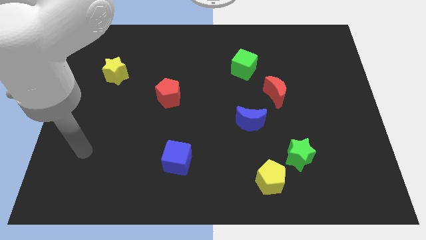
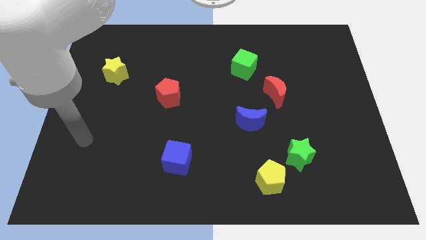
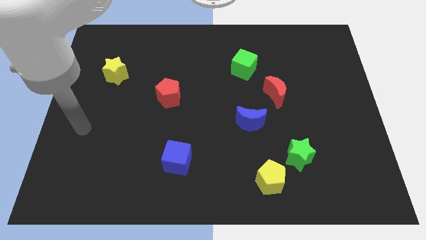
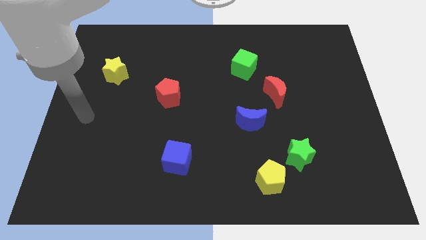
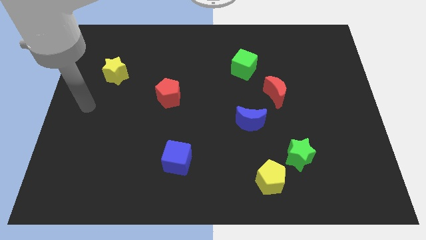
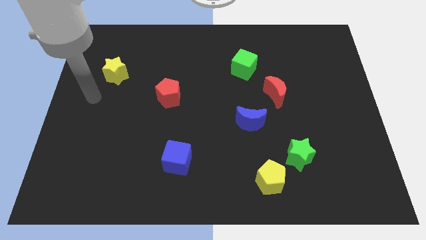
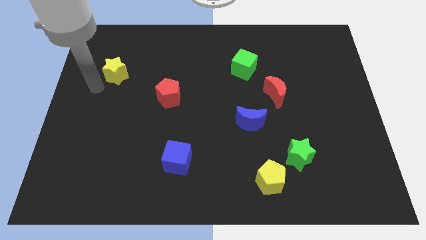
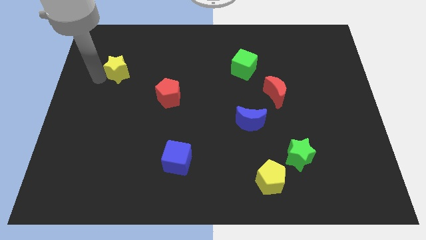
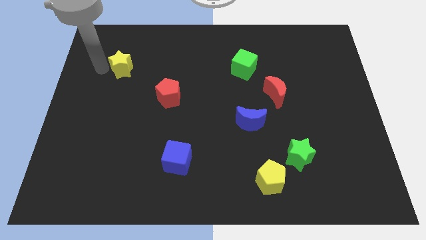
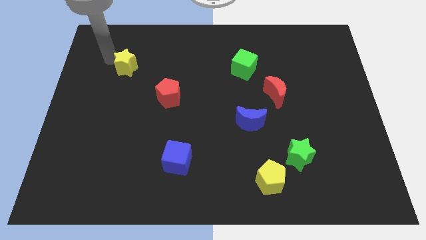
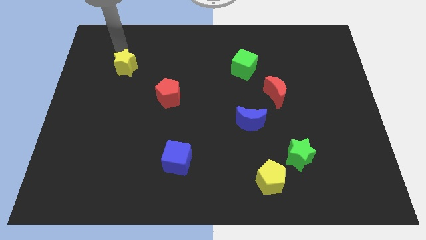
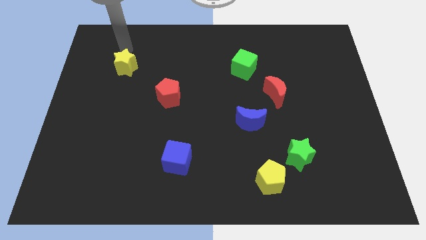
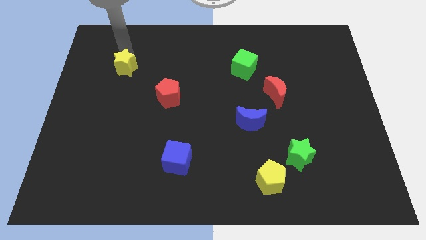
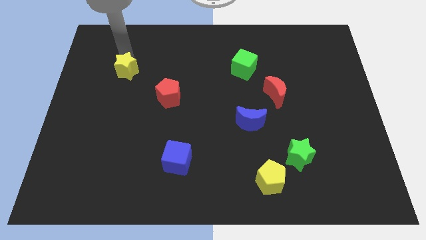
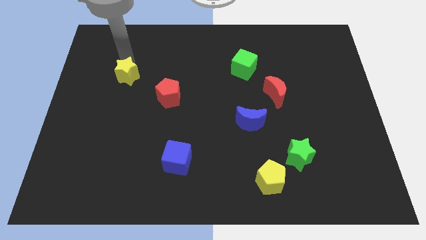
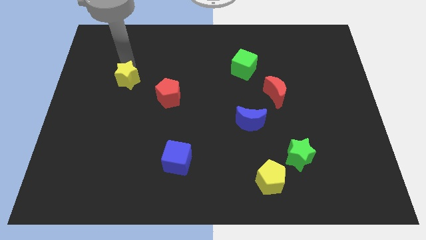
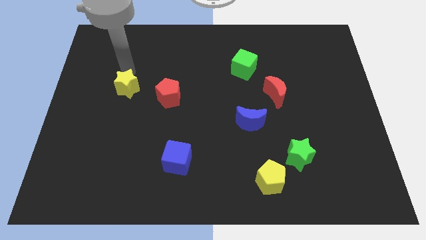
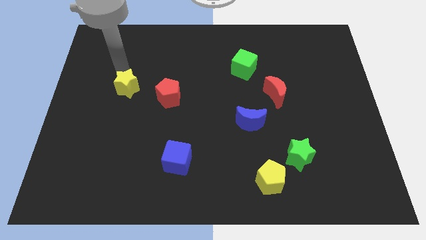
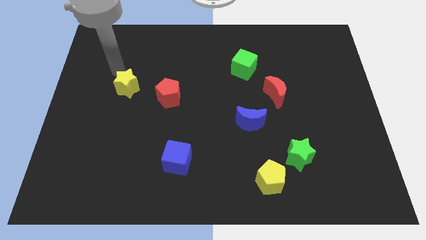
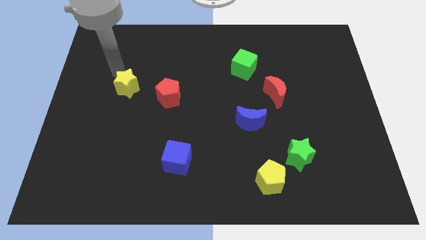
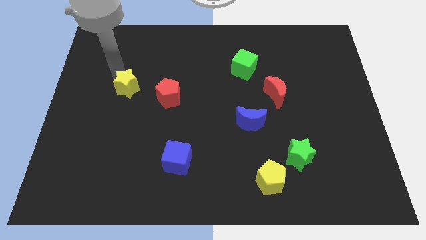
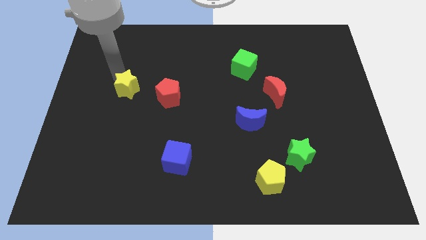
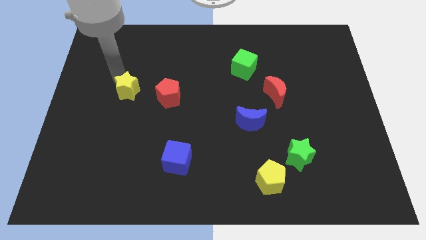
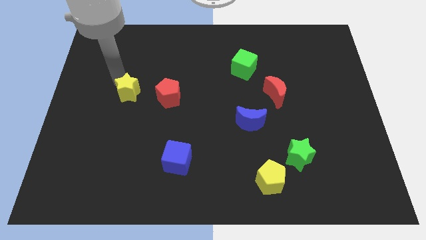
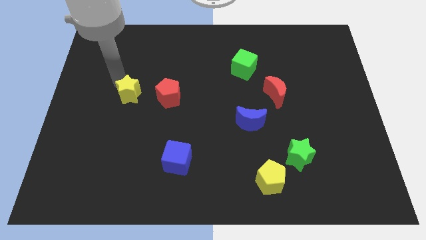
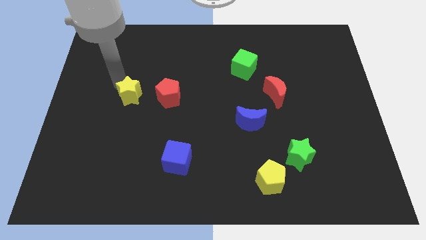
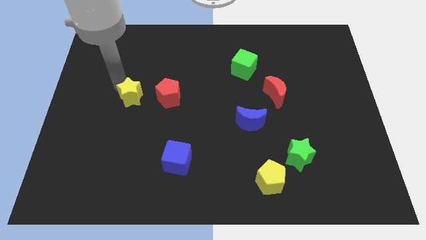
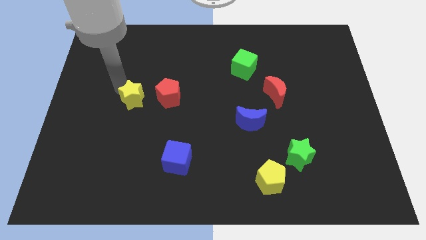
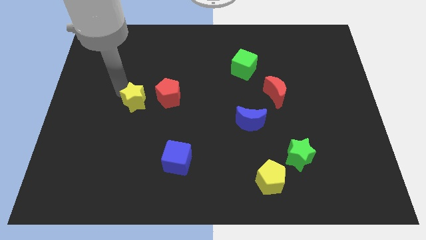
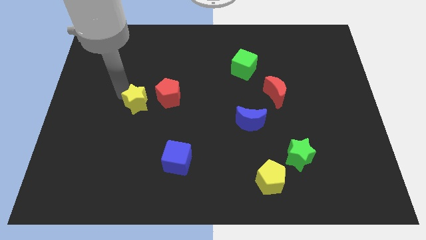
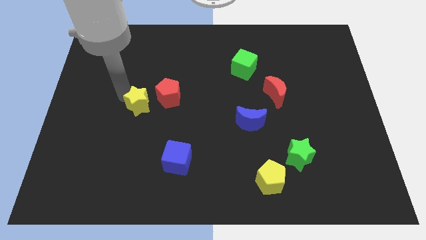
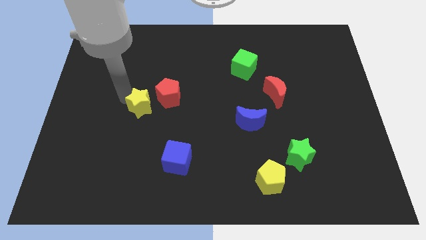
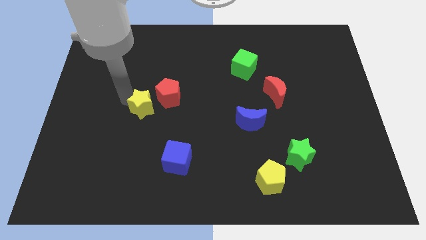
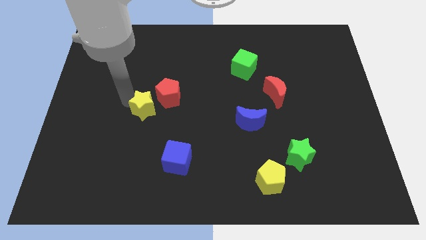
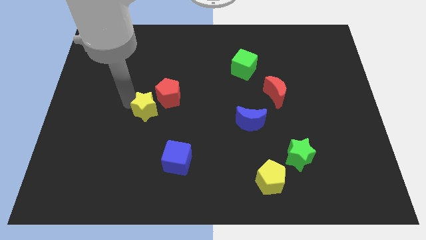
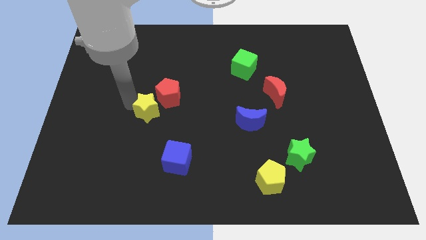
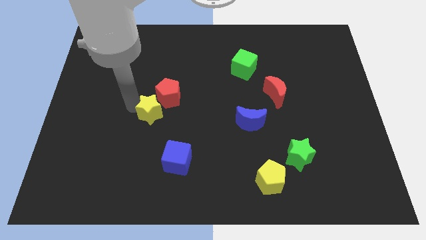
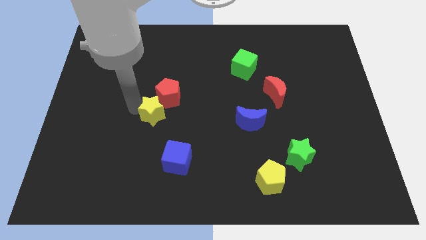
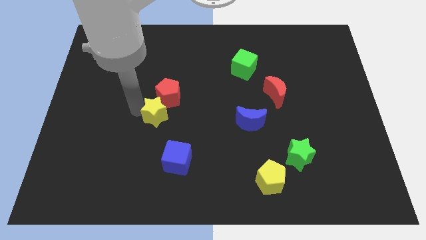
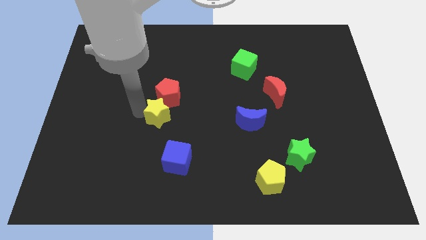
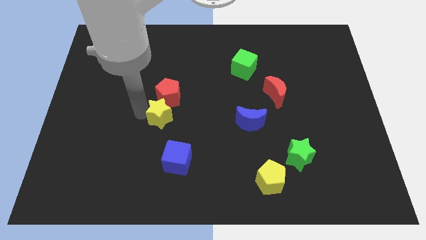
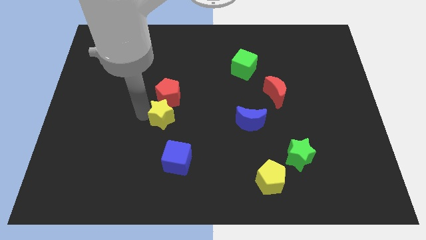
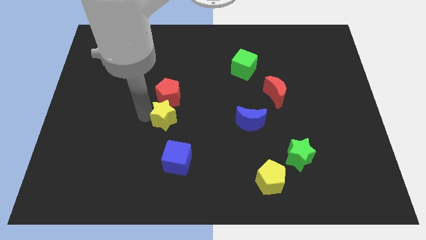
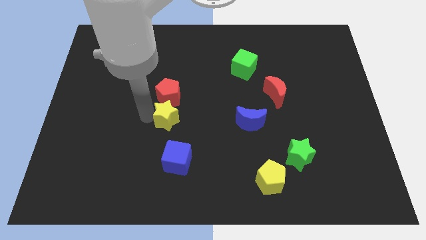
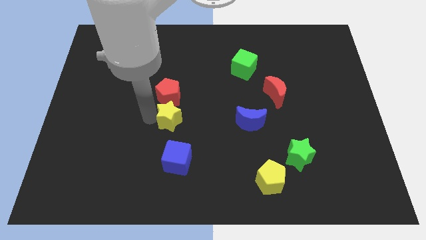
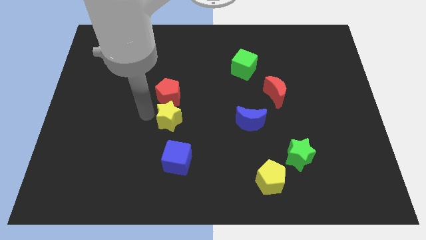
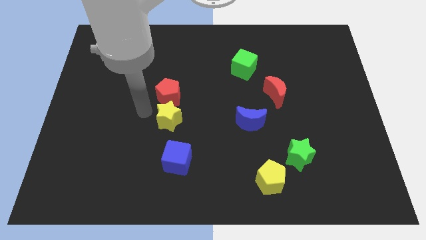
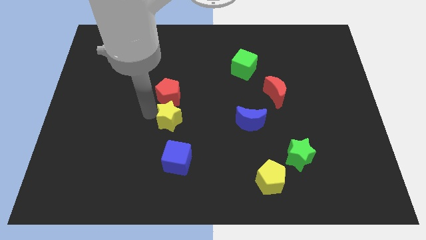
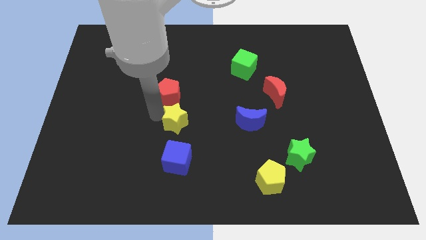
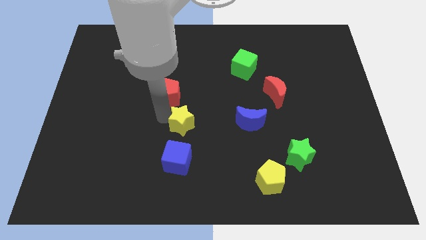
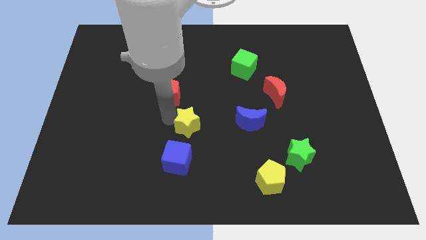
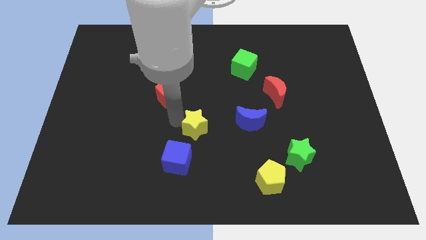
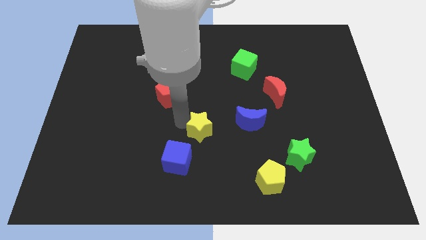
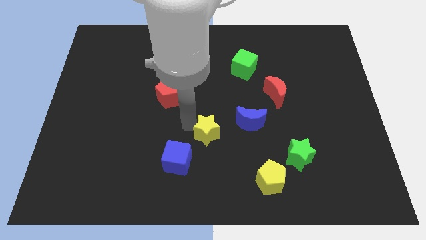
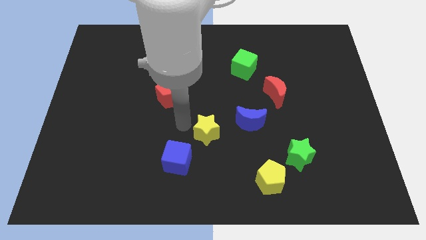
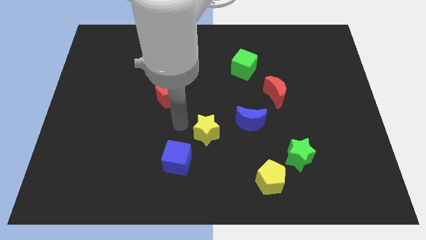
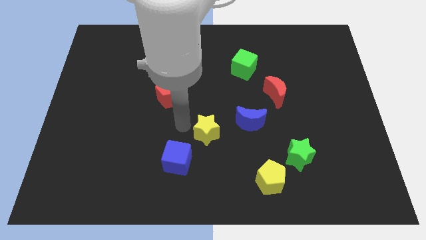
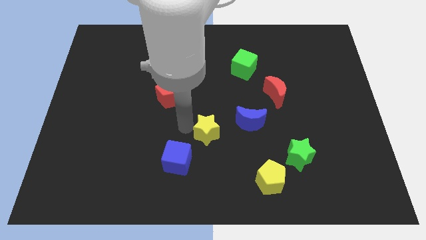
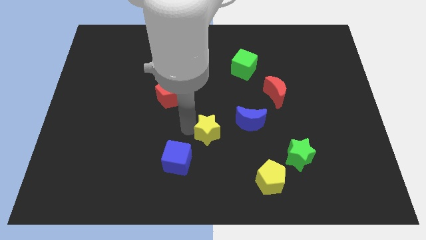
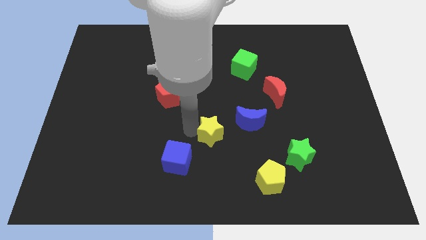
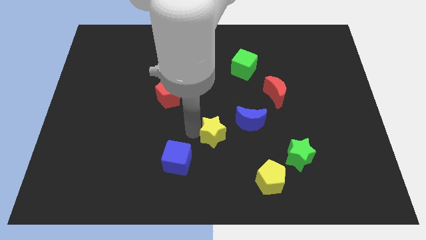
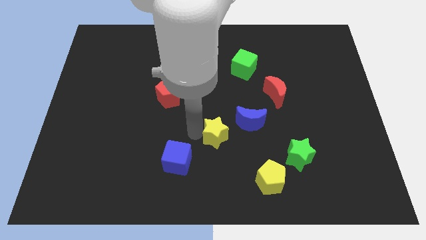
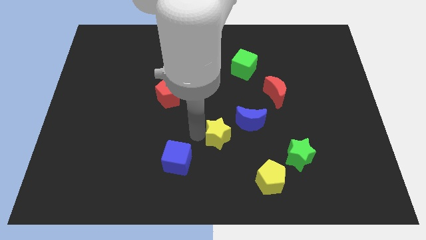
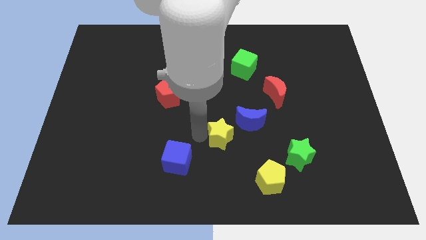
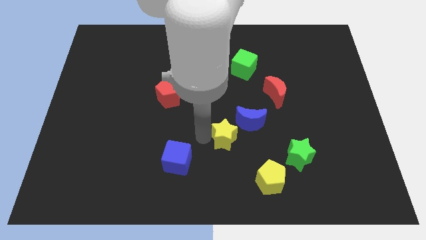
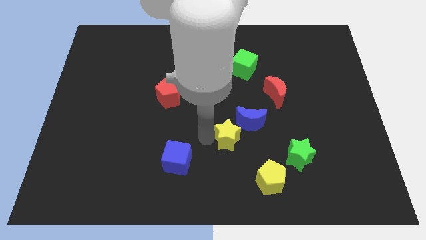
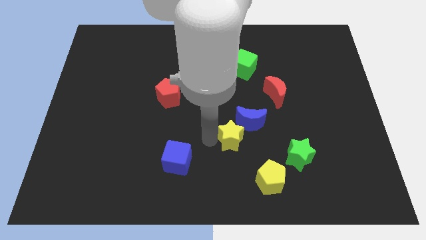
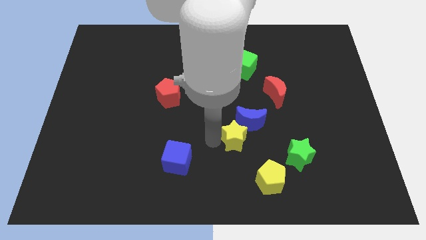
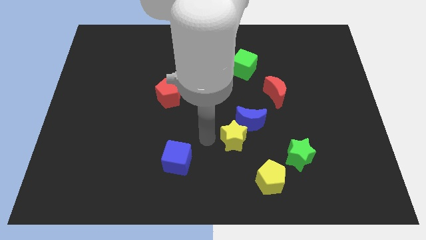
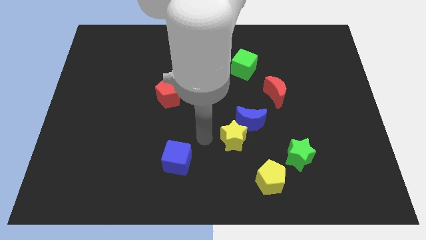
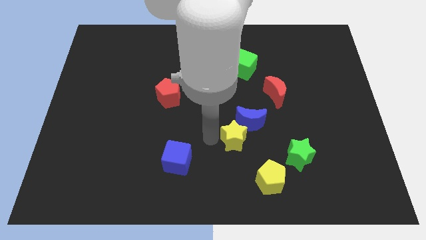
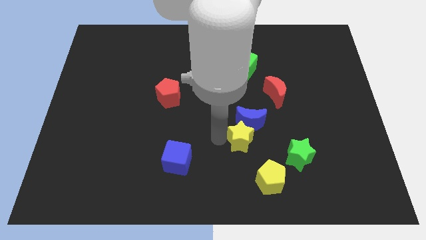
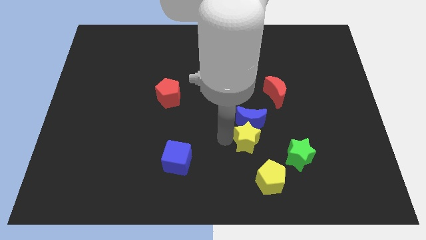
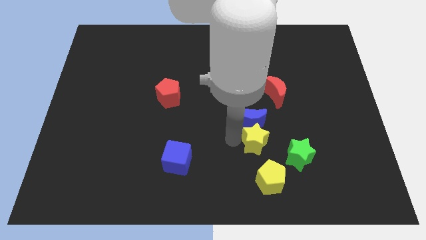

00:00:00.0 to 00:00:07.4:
push the yellow star to the top left of the green star

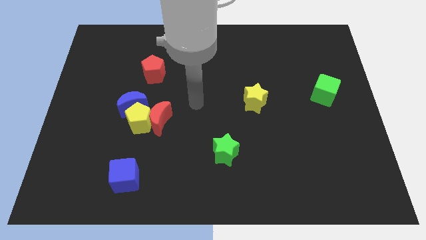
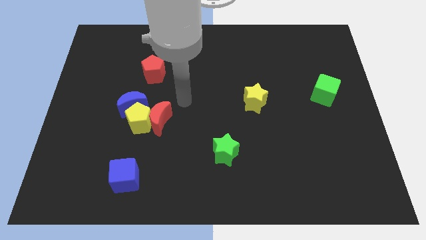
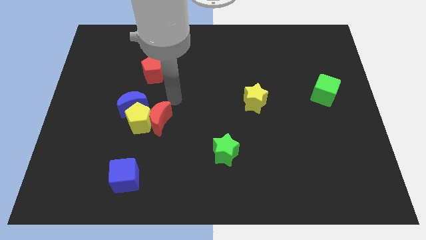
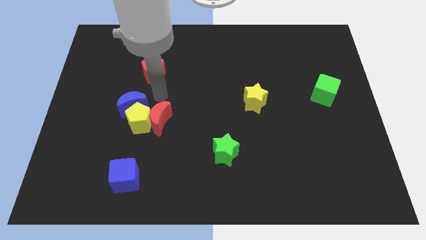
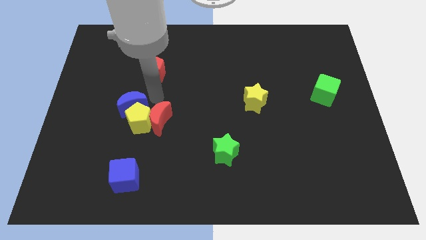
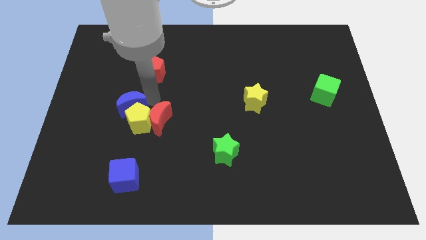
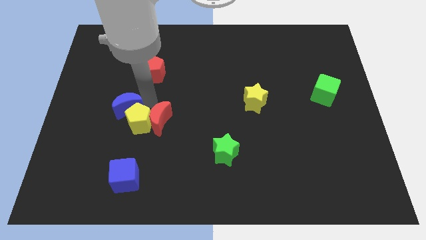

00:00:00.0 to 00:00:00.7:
move the blue moon left of the yellow pentagon
